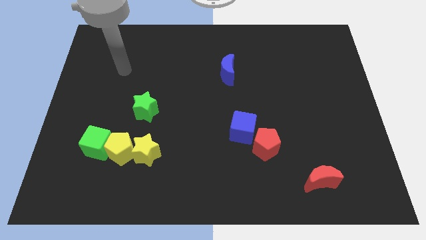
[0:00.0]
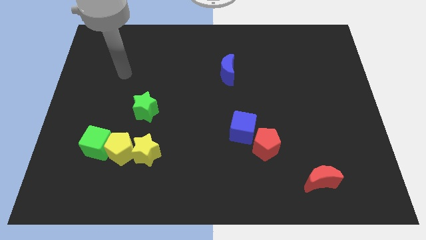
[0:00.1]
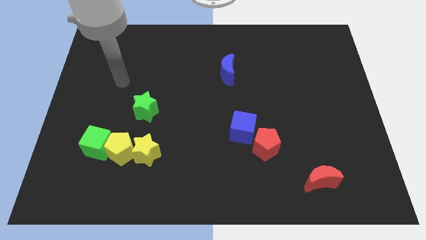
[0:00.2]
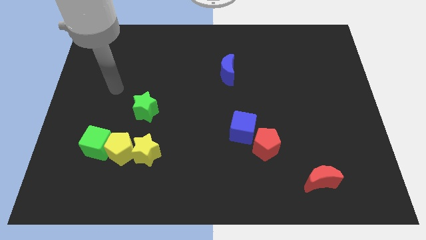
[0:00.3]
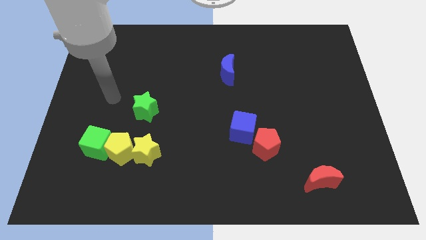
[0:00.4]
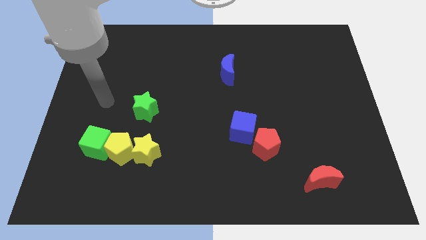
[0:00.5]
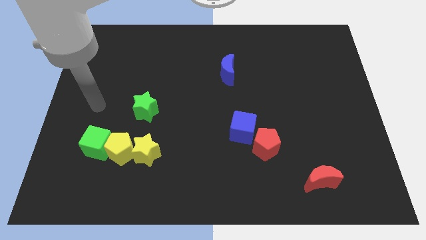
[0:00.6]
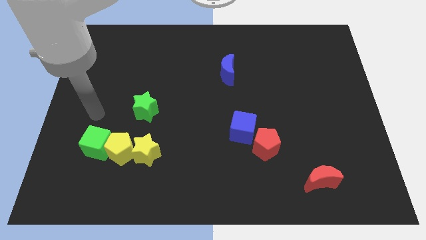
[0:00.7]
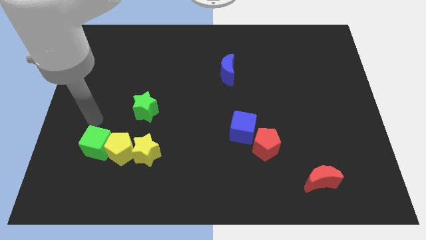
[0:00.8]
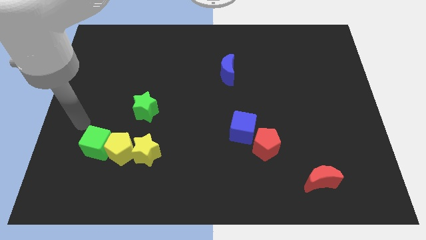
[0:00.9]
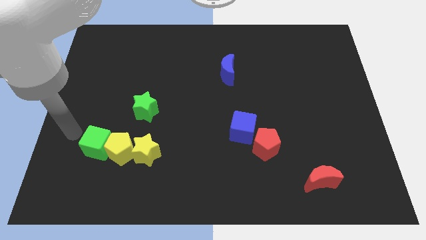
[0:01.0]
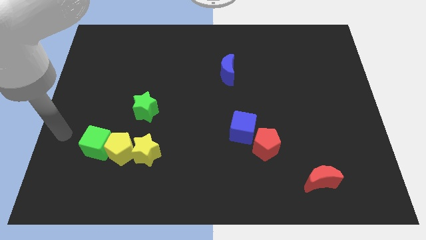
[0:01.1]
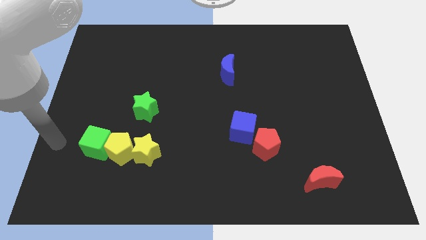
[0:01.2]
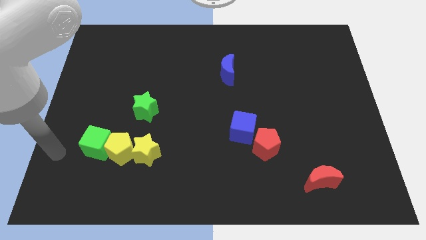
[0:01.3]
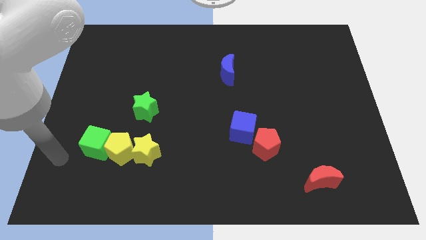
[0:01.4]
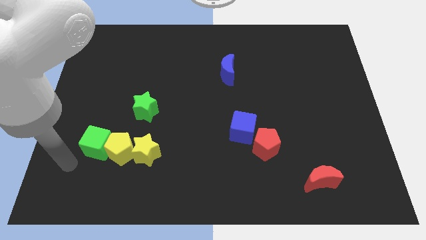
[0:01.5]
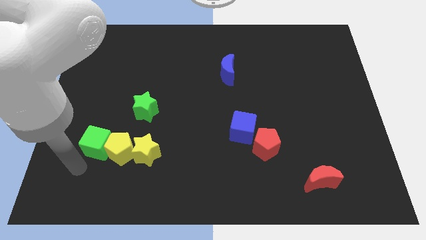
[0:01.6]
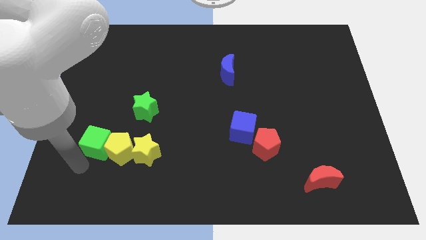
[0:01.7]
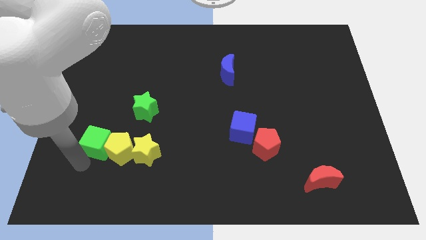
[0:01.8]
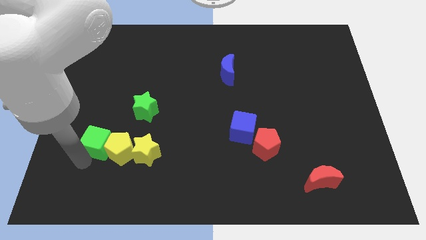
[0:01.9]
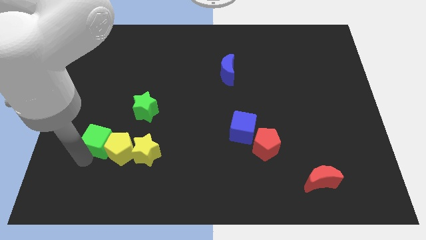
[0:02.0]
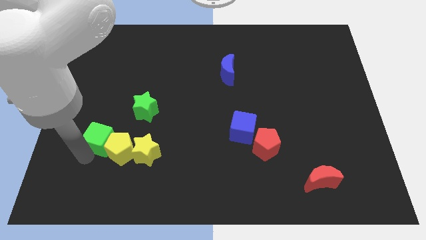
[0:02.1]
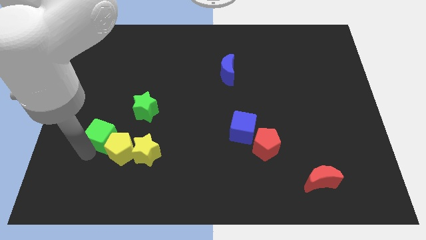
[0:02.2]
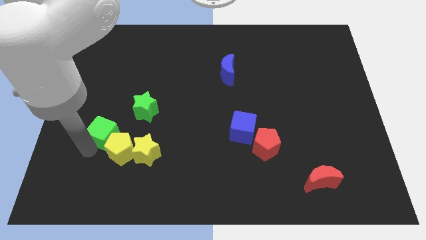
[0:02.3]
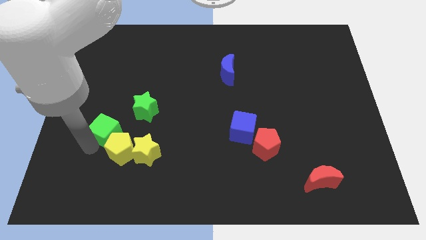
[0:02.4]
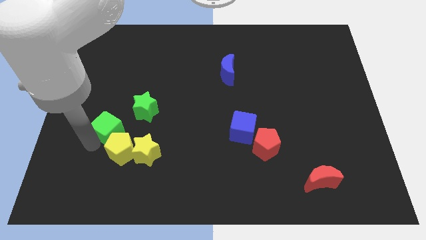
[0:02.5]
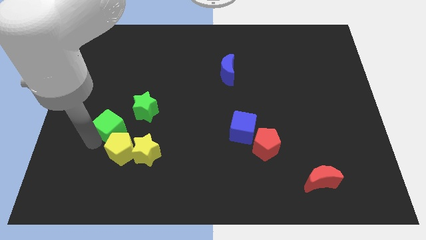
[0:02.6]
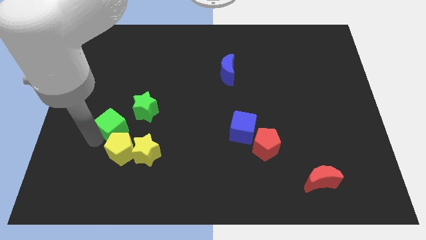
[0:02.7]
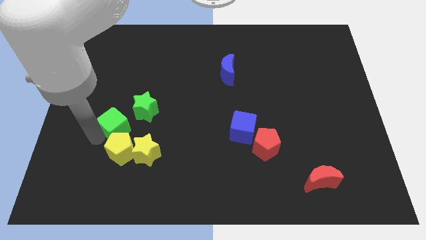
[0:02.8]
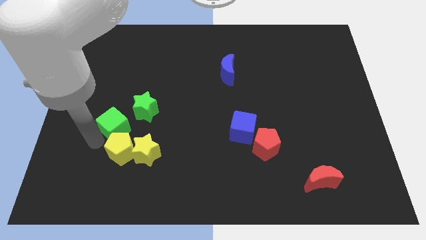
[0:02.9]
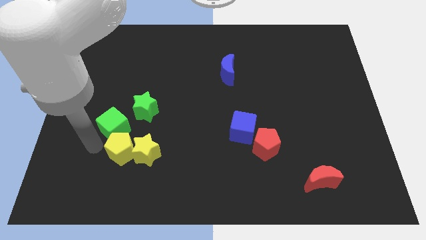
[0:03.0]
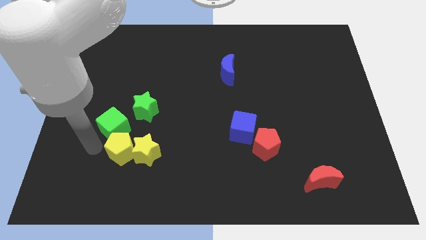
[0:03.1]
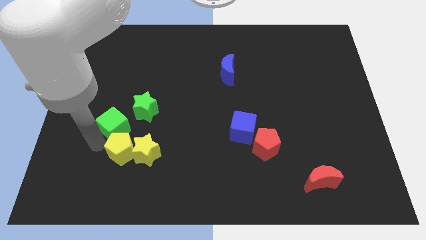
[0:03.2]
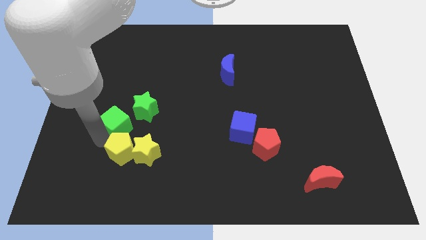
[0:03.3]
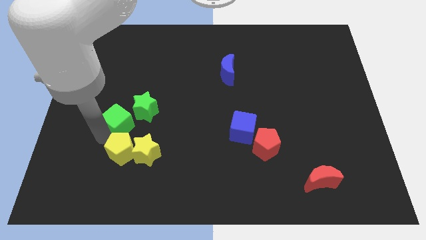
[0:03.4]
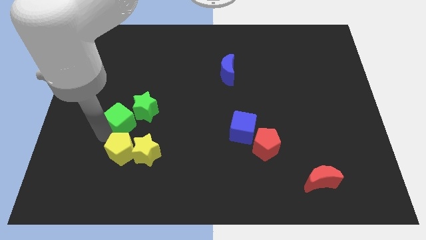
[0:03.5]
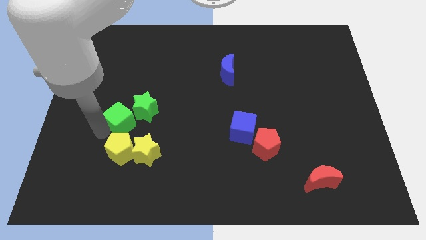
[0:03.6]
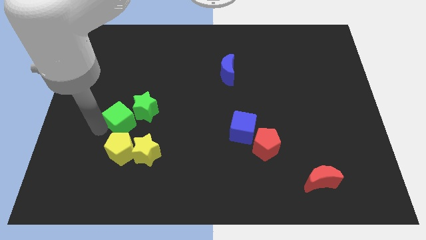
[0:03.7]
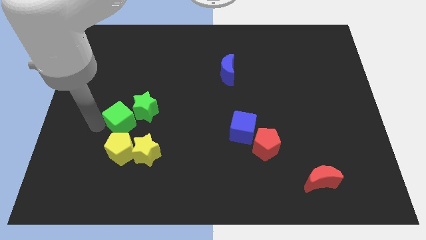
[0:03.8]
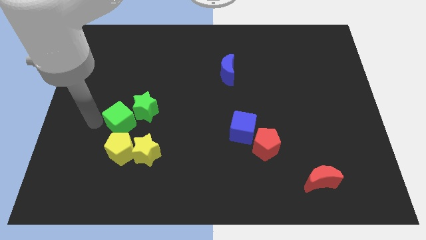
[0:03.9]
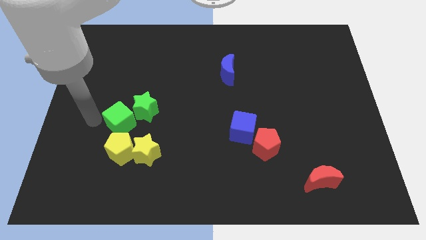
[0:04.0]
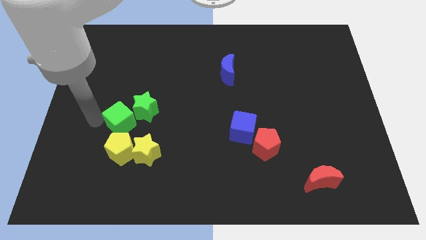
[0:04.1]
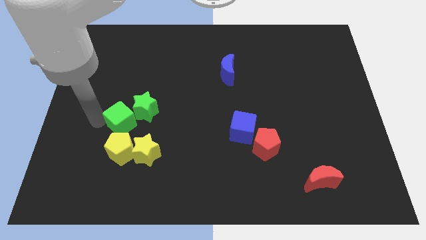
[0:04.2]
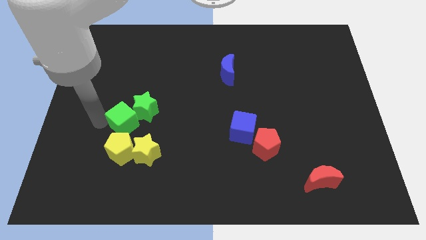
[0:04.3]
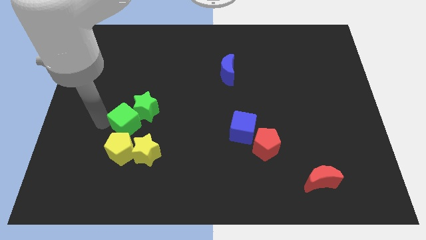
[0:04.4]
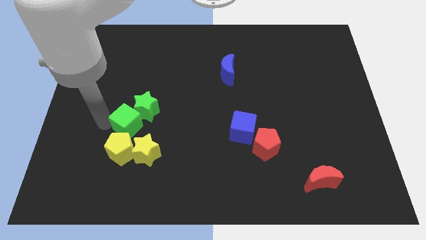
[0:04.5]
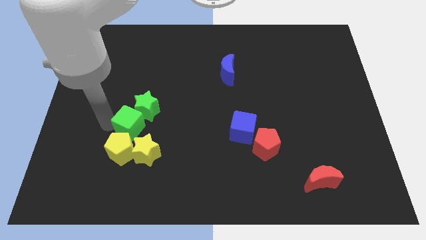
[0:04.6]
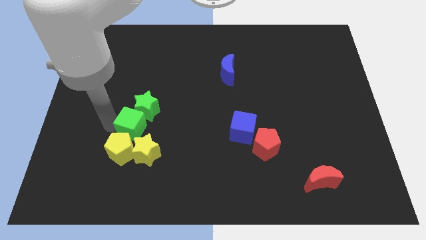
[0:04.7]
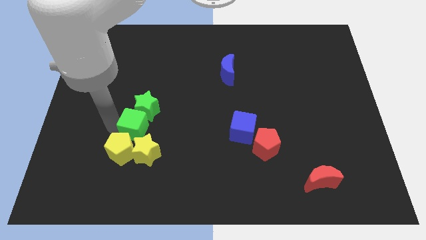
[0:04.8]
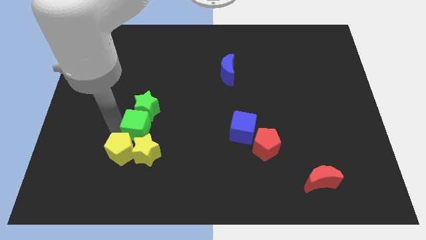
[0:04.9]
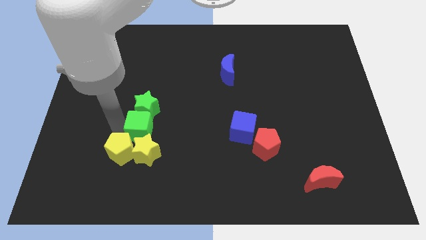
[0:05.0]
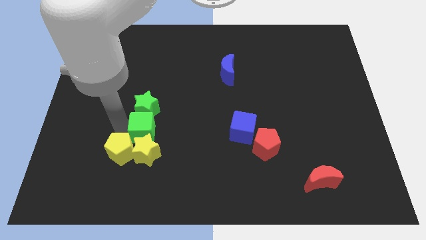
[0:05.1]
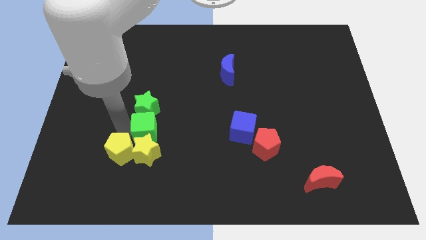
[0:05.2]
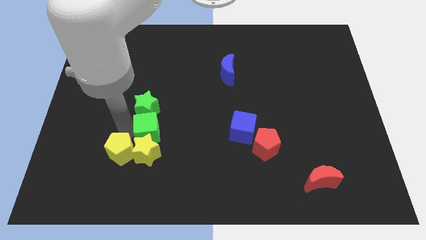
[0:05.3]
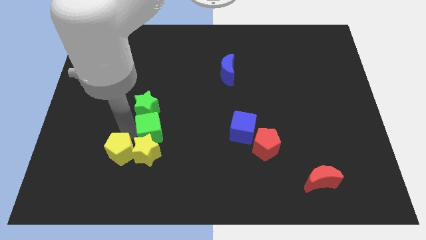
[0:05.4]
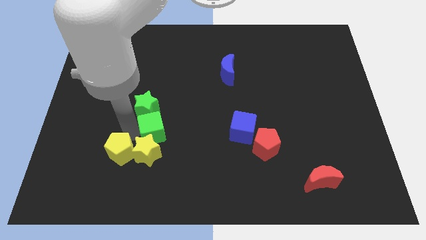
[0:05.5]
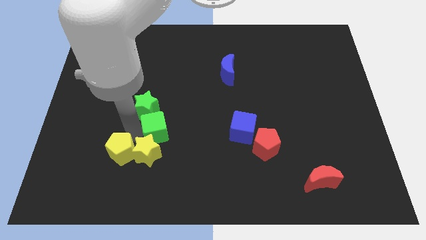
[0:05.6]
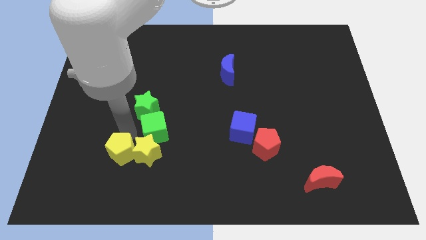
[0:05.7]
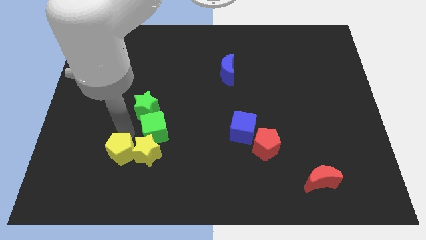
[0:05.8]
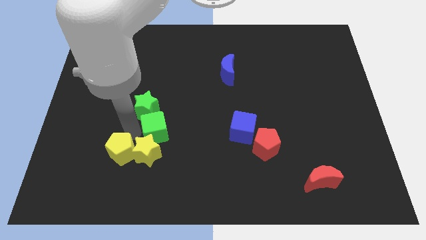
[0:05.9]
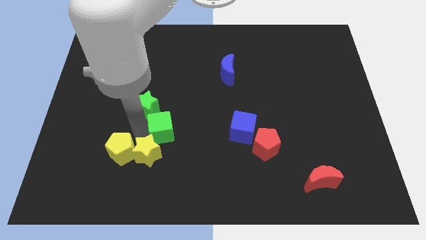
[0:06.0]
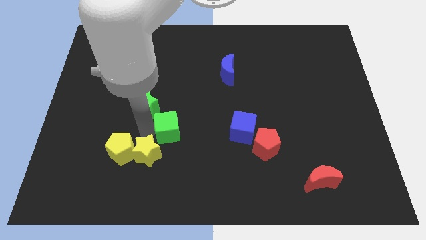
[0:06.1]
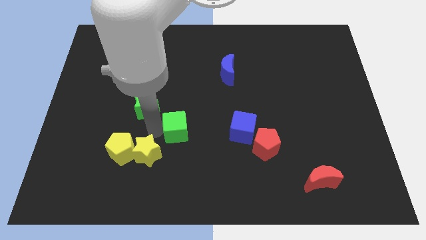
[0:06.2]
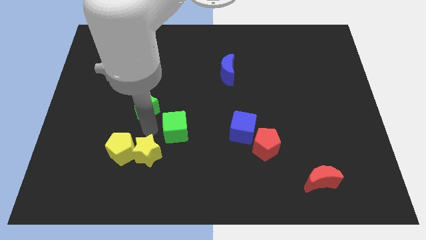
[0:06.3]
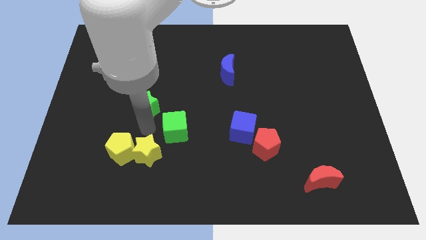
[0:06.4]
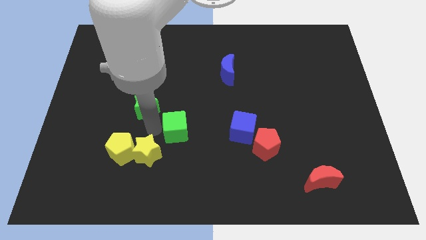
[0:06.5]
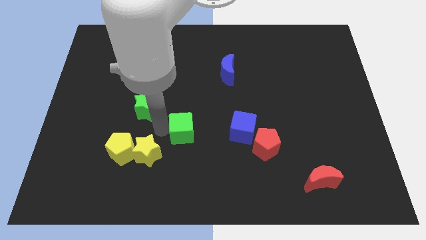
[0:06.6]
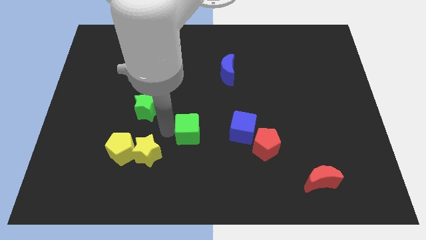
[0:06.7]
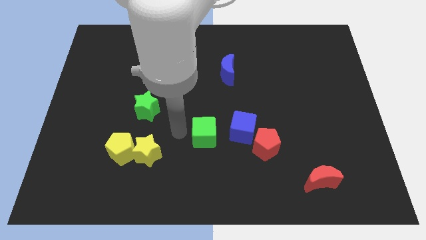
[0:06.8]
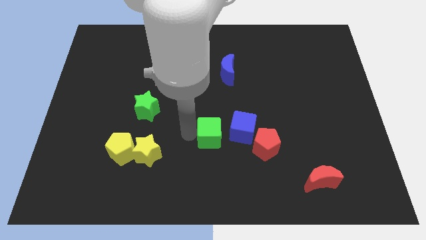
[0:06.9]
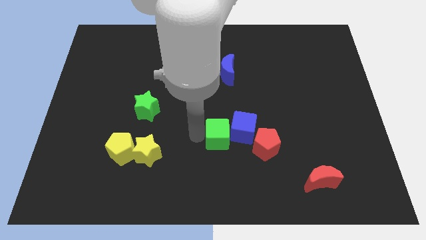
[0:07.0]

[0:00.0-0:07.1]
slide the green cube next to the blue cube
